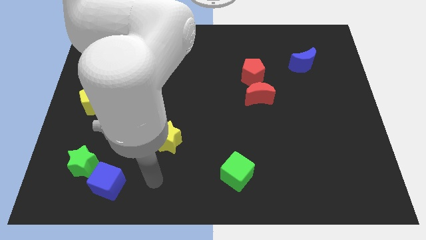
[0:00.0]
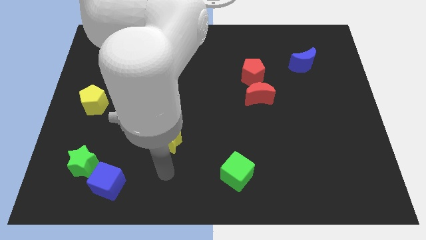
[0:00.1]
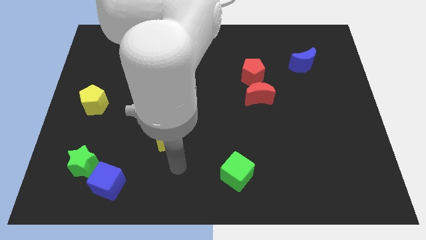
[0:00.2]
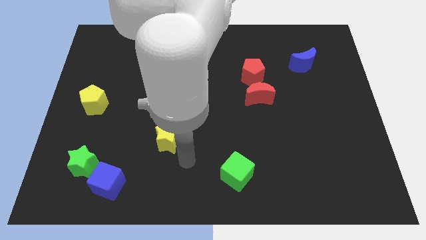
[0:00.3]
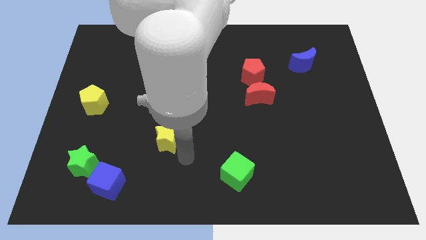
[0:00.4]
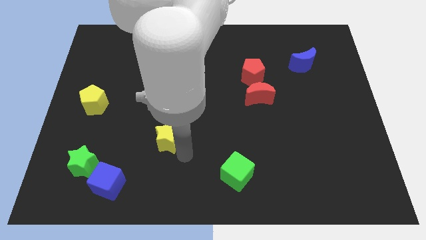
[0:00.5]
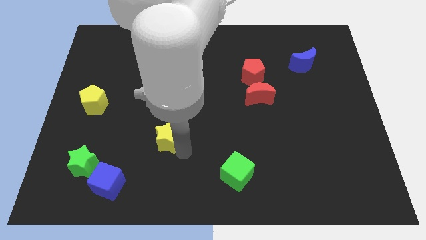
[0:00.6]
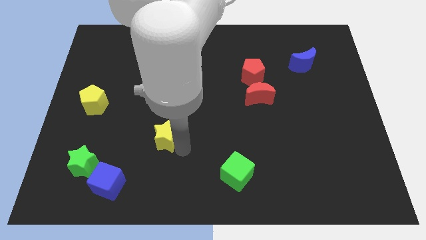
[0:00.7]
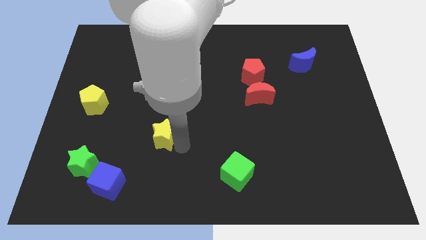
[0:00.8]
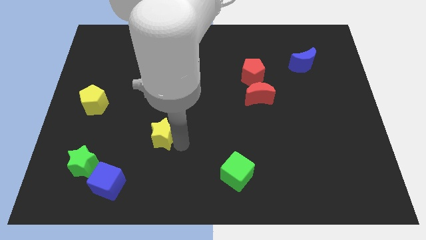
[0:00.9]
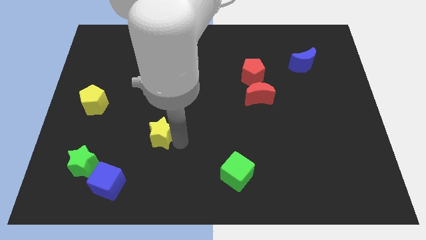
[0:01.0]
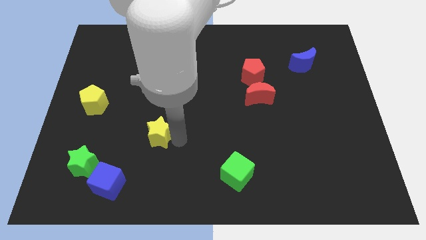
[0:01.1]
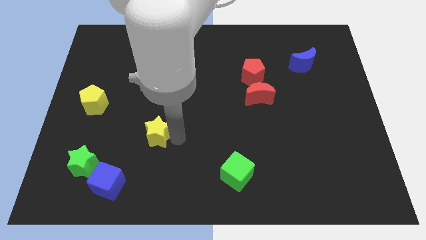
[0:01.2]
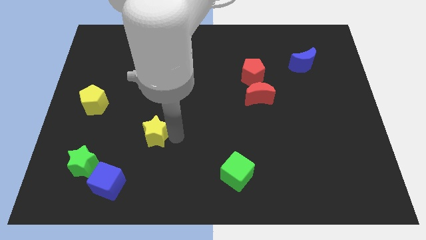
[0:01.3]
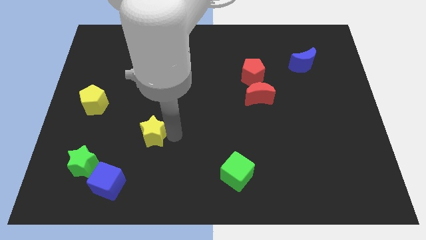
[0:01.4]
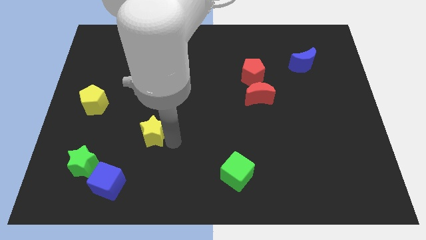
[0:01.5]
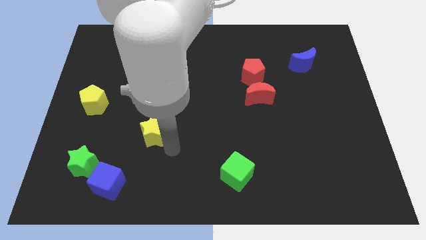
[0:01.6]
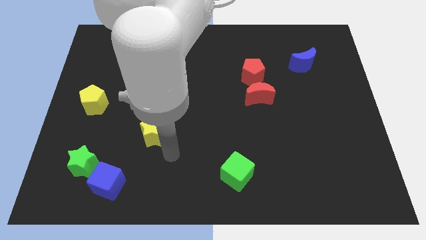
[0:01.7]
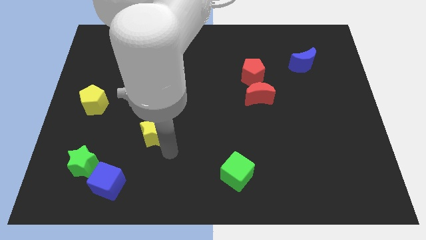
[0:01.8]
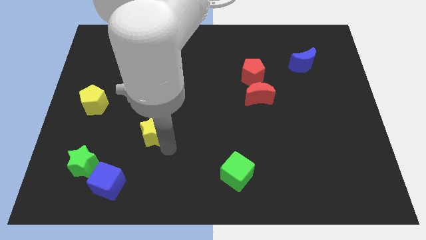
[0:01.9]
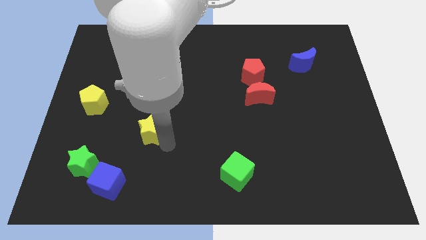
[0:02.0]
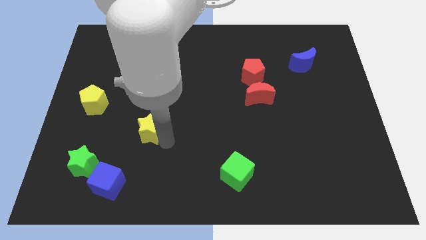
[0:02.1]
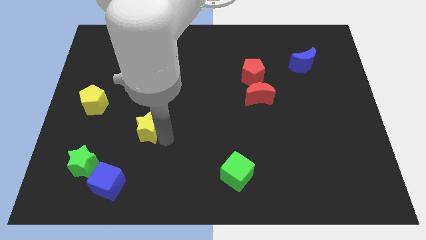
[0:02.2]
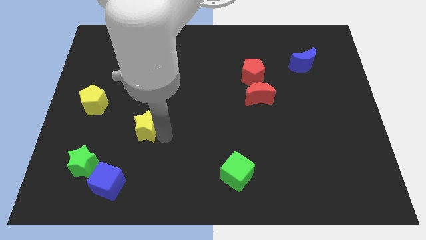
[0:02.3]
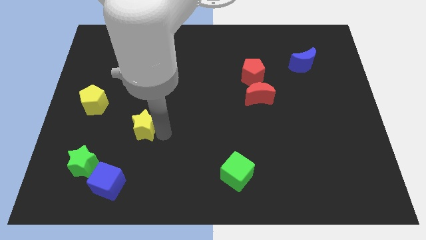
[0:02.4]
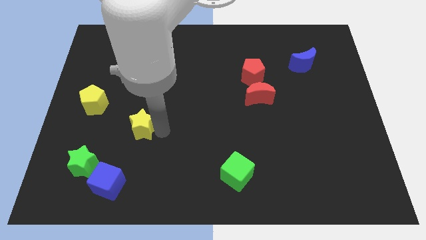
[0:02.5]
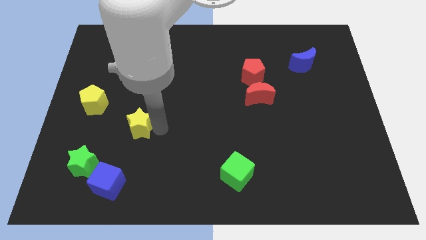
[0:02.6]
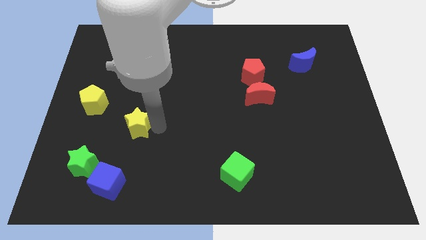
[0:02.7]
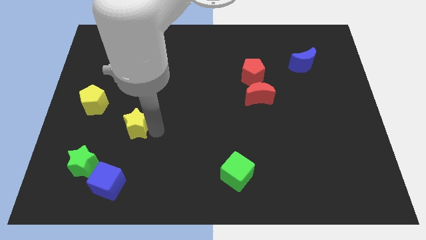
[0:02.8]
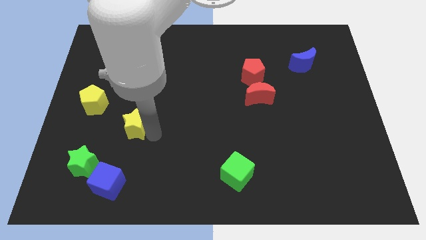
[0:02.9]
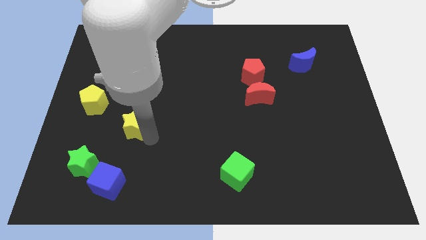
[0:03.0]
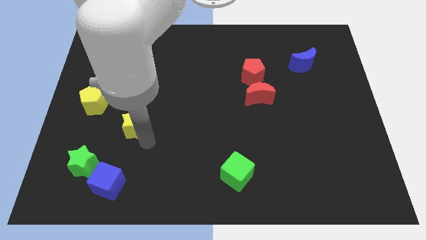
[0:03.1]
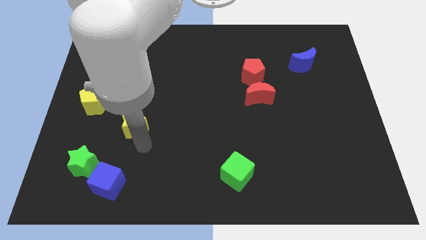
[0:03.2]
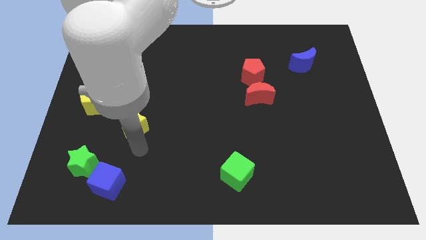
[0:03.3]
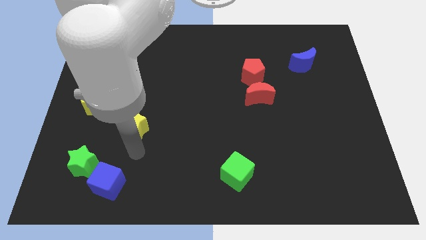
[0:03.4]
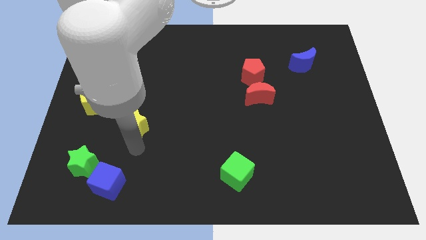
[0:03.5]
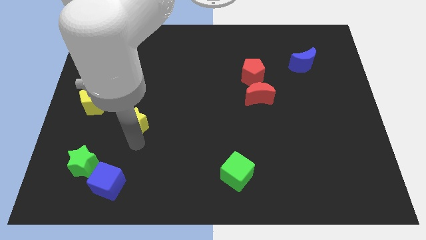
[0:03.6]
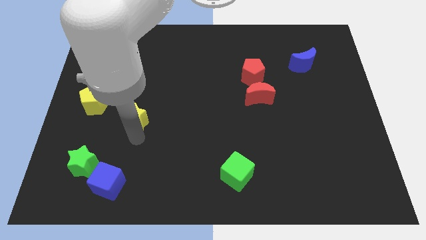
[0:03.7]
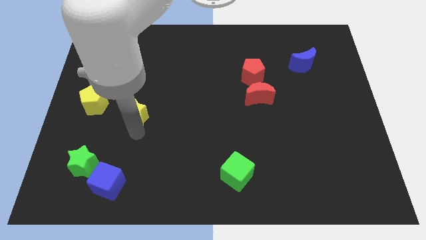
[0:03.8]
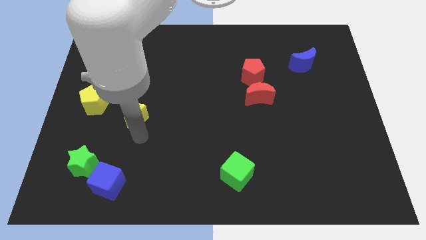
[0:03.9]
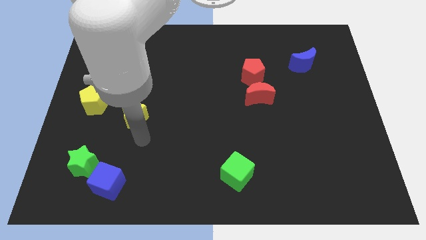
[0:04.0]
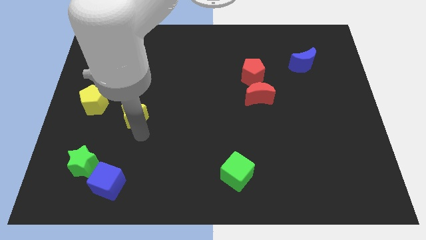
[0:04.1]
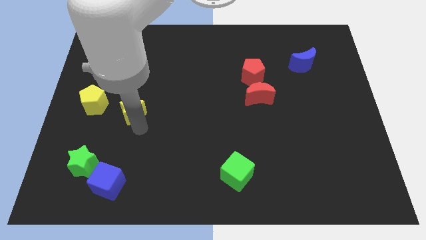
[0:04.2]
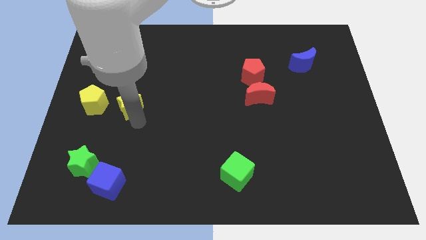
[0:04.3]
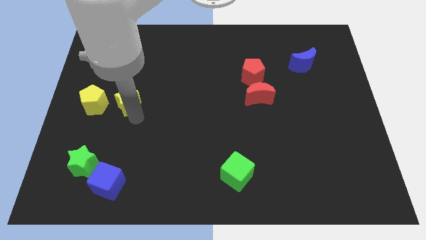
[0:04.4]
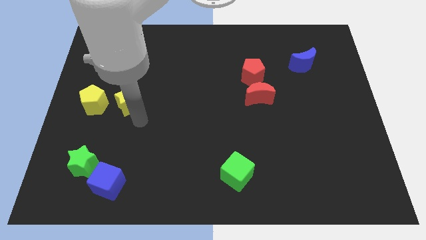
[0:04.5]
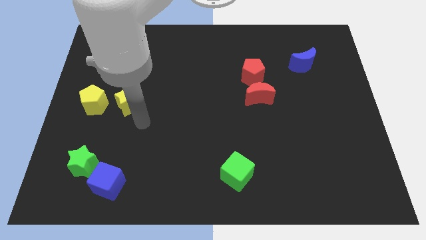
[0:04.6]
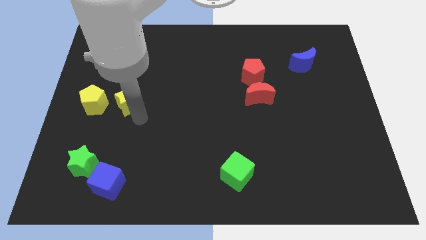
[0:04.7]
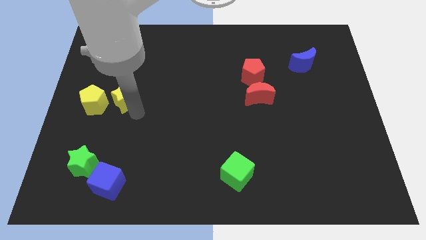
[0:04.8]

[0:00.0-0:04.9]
slide the yellow star diagonally up and to the right of the yellow pentagon

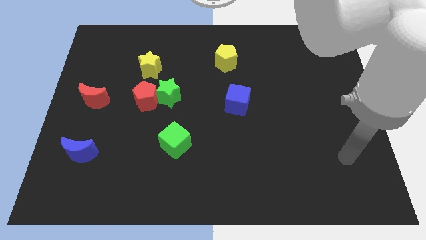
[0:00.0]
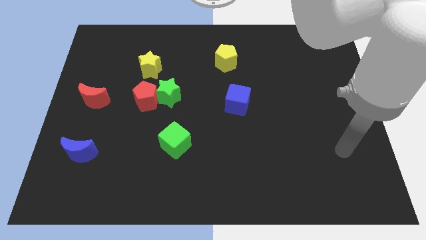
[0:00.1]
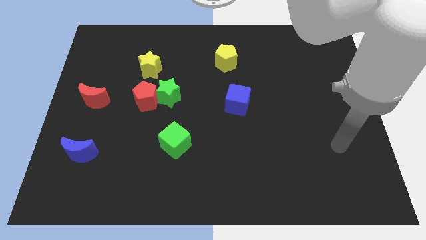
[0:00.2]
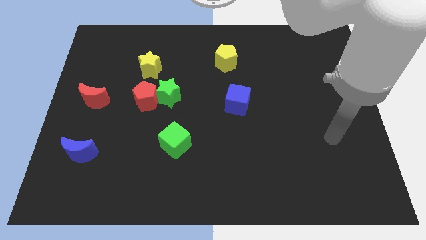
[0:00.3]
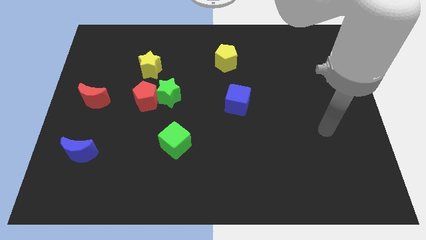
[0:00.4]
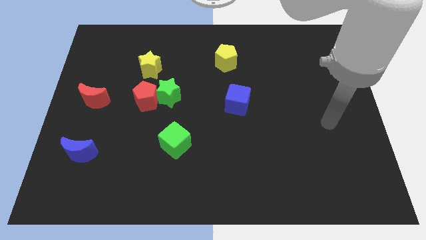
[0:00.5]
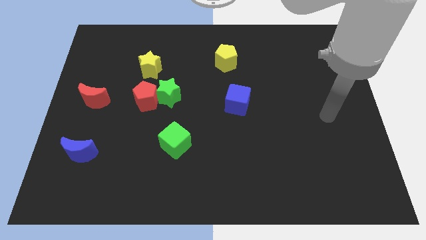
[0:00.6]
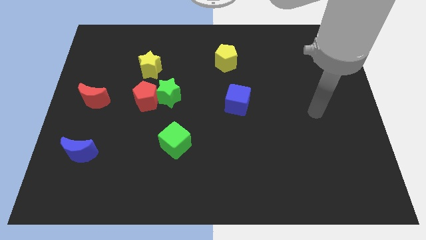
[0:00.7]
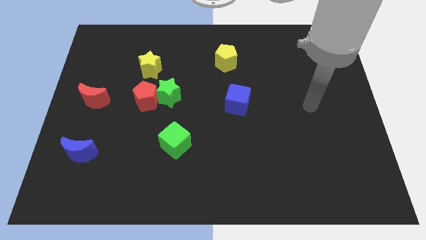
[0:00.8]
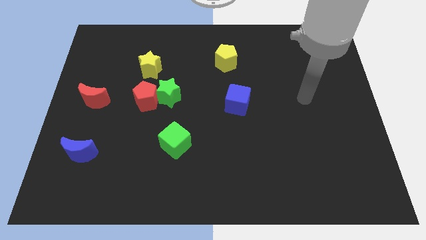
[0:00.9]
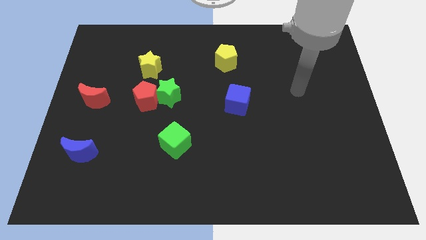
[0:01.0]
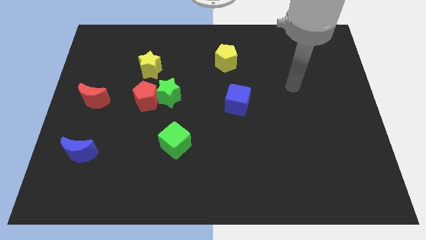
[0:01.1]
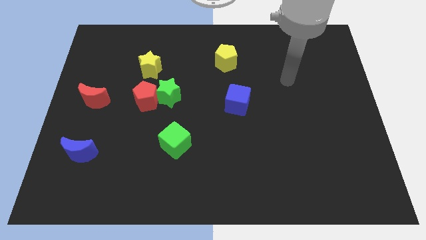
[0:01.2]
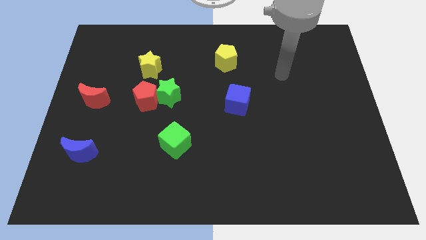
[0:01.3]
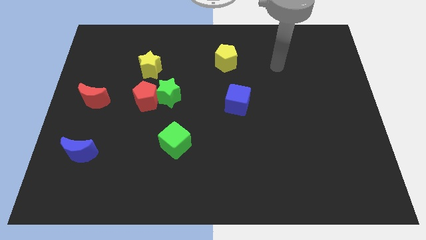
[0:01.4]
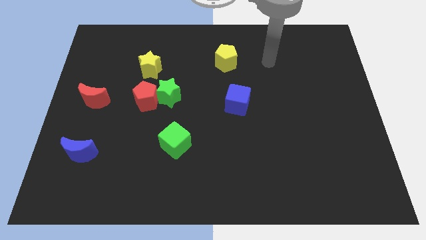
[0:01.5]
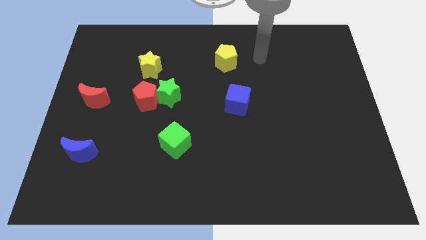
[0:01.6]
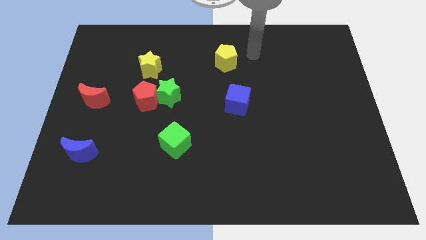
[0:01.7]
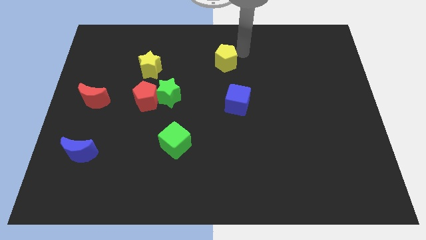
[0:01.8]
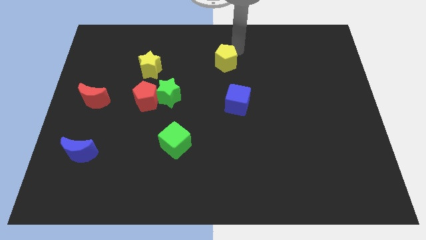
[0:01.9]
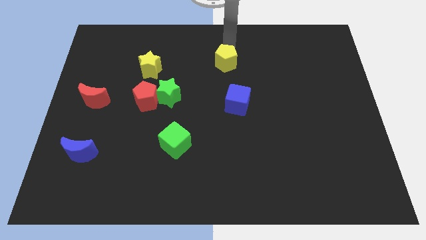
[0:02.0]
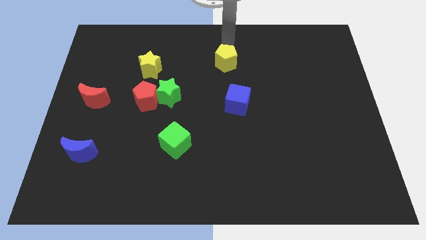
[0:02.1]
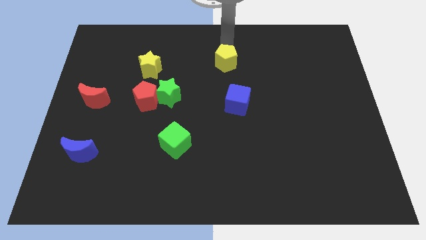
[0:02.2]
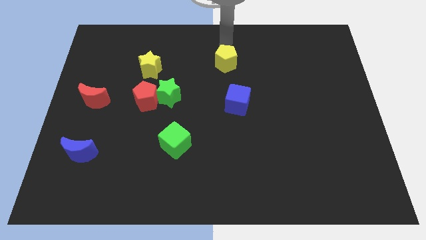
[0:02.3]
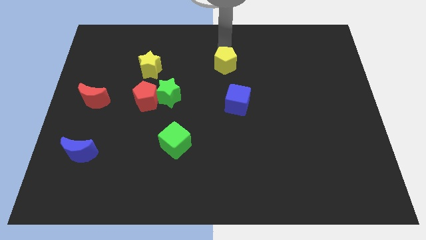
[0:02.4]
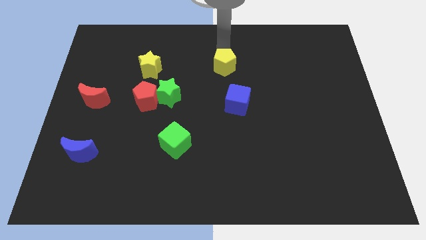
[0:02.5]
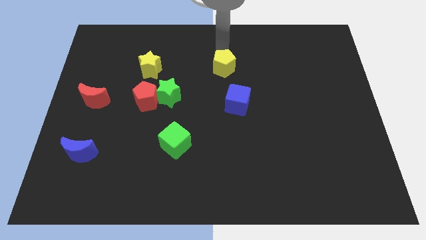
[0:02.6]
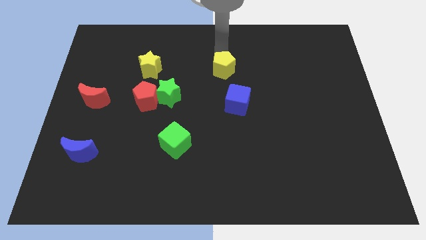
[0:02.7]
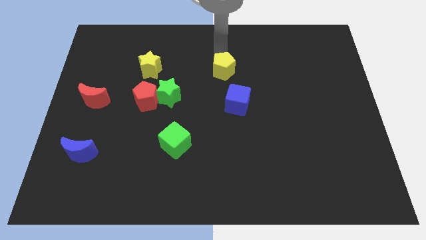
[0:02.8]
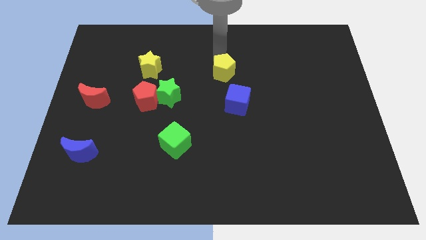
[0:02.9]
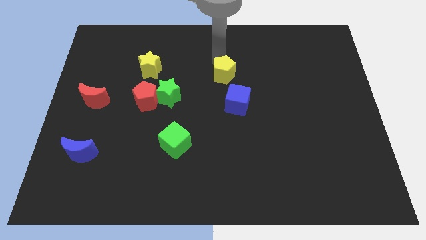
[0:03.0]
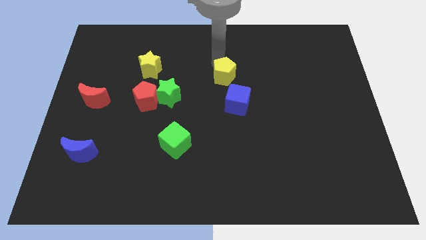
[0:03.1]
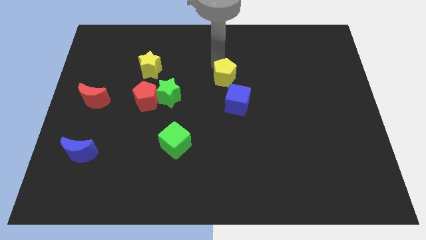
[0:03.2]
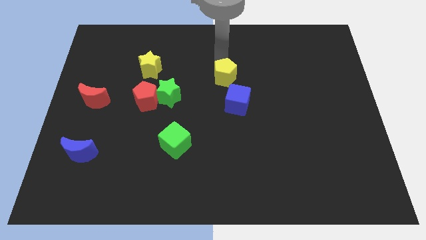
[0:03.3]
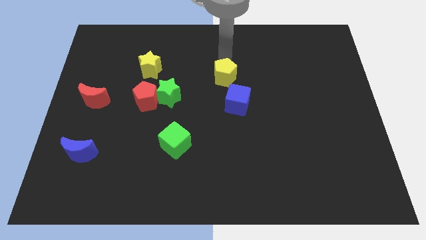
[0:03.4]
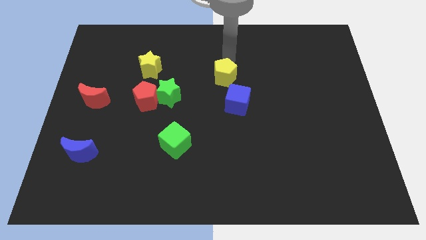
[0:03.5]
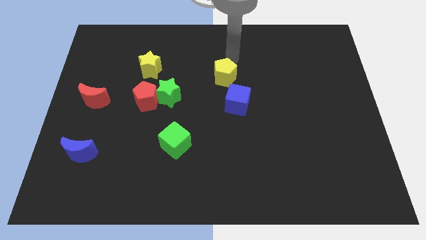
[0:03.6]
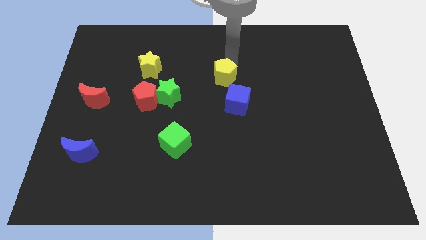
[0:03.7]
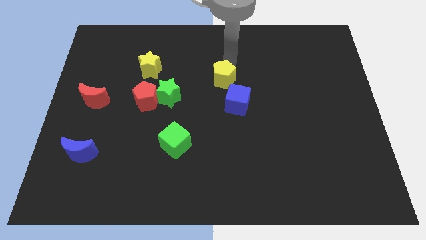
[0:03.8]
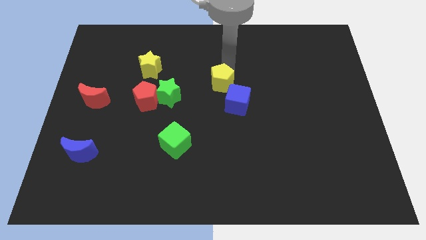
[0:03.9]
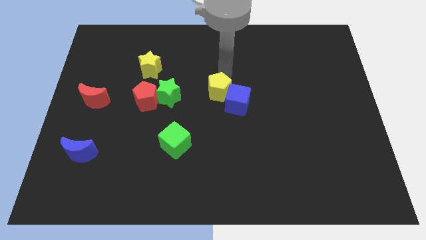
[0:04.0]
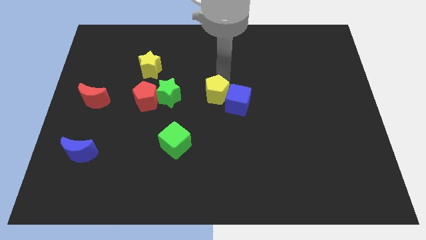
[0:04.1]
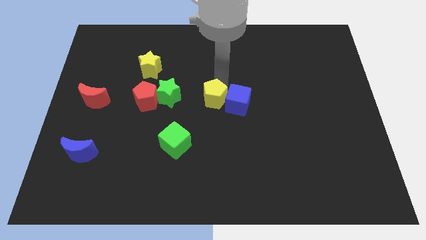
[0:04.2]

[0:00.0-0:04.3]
slide the yellow pentagon to the bottom left side of the blue cube
